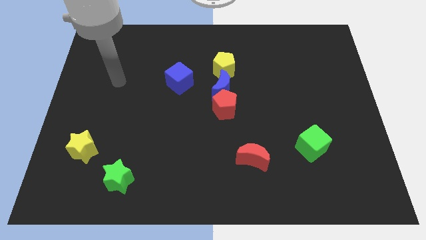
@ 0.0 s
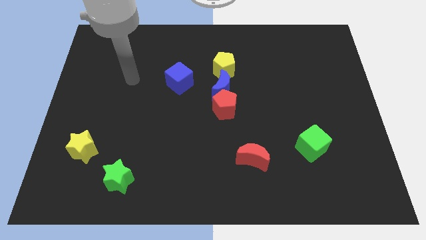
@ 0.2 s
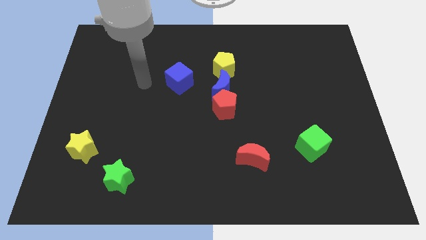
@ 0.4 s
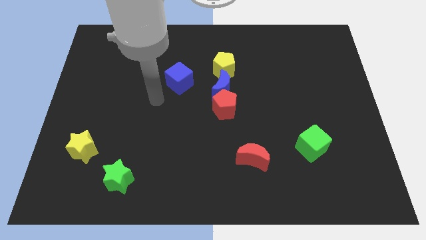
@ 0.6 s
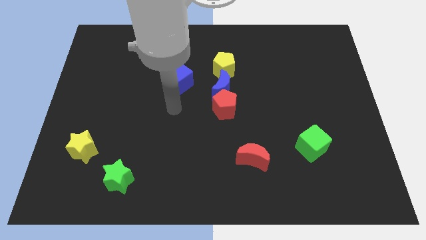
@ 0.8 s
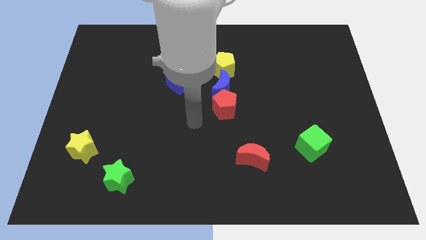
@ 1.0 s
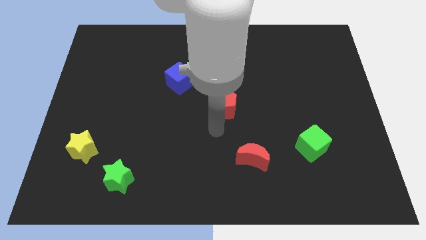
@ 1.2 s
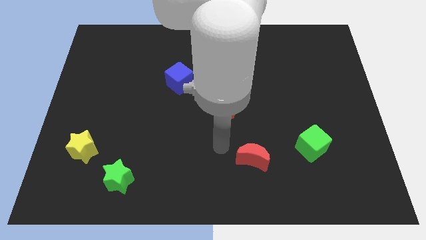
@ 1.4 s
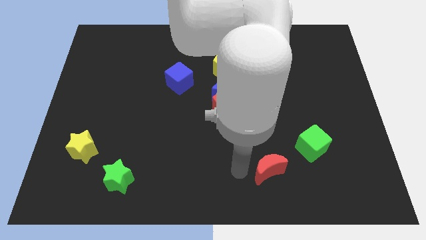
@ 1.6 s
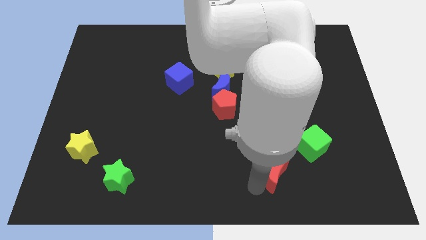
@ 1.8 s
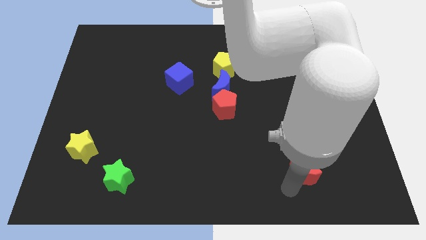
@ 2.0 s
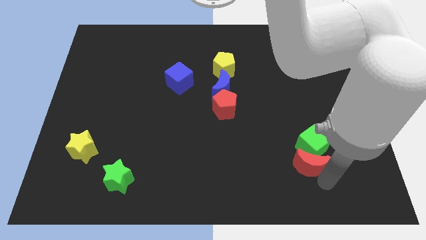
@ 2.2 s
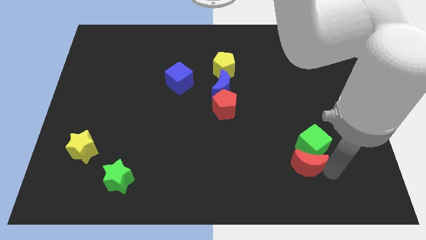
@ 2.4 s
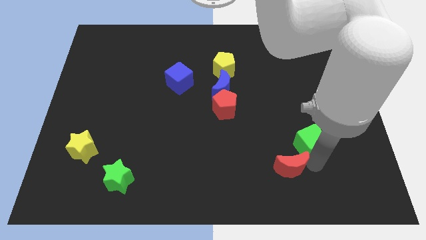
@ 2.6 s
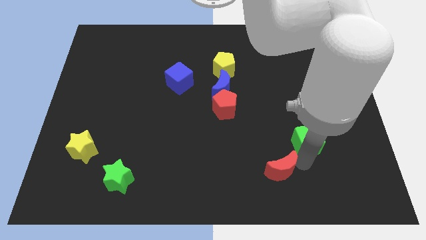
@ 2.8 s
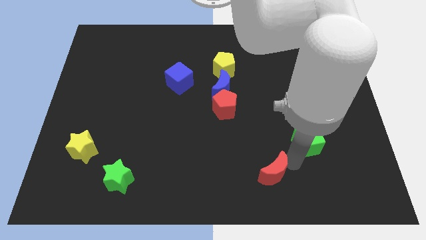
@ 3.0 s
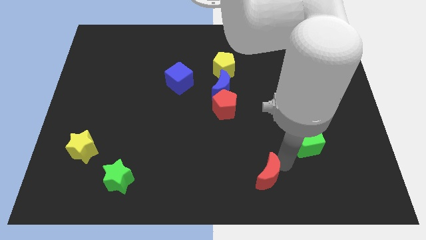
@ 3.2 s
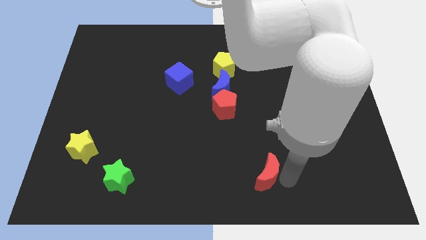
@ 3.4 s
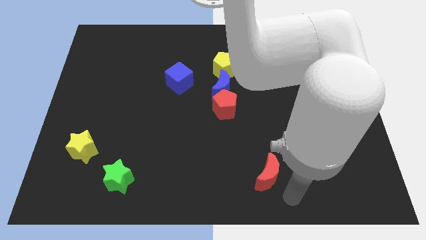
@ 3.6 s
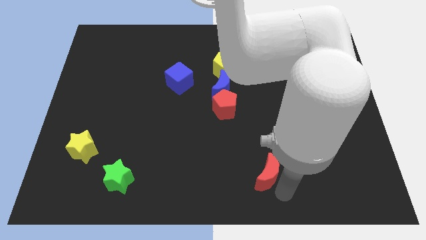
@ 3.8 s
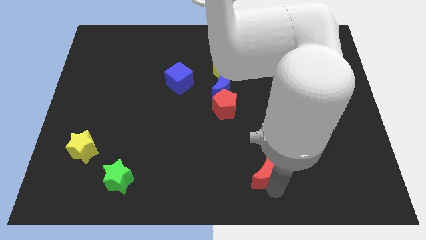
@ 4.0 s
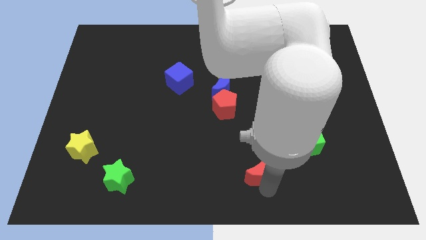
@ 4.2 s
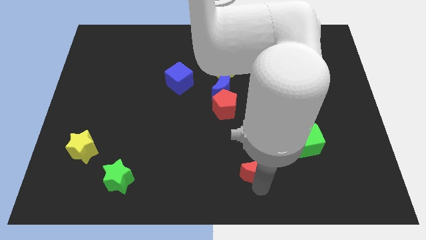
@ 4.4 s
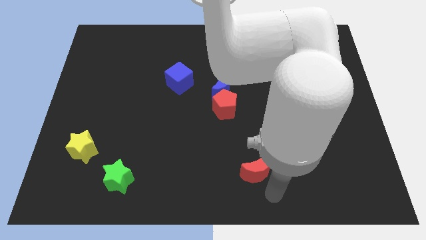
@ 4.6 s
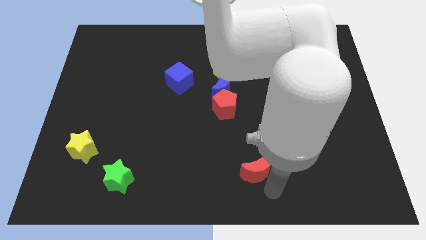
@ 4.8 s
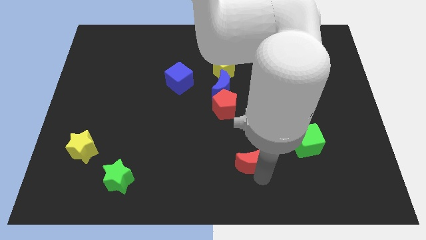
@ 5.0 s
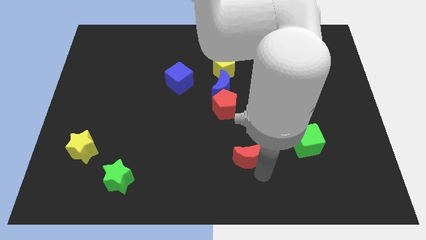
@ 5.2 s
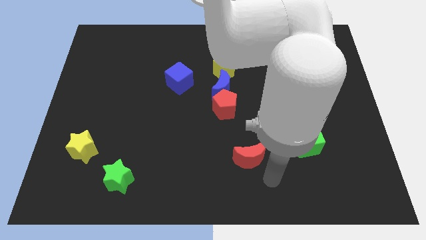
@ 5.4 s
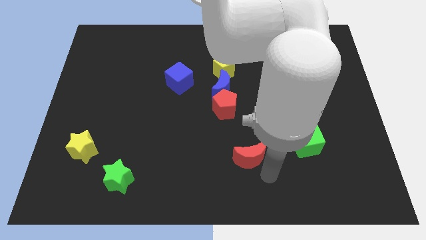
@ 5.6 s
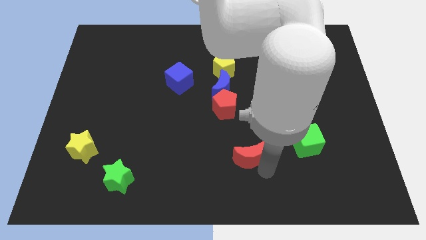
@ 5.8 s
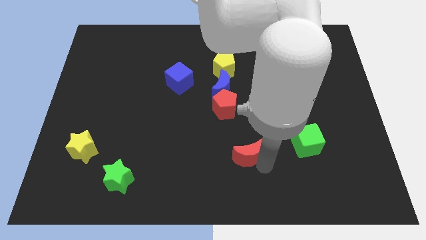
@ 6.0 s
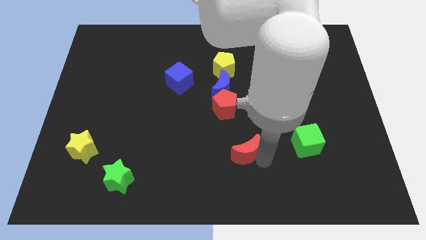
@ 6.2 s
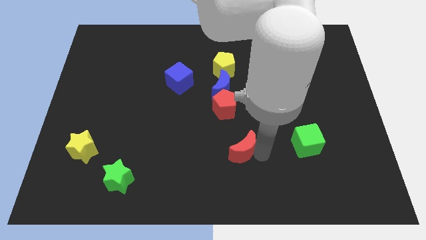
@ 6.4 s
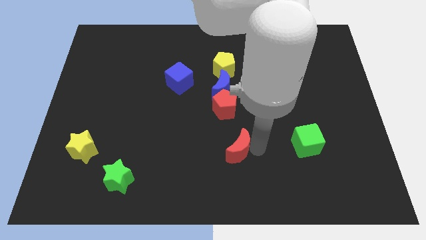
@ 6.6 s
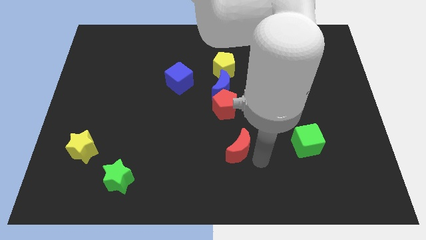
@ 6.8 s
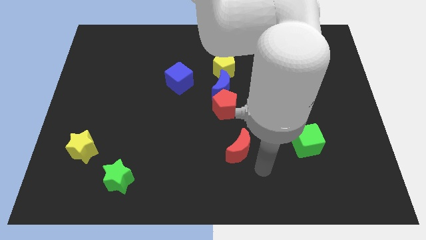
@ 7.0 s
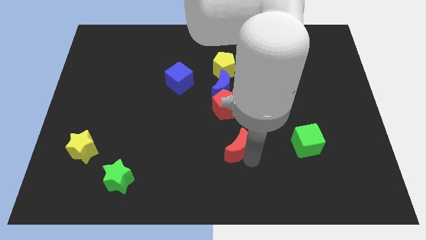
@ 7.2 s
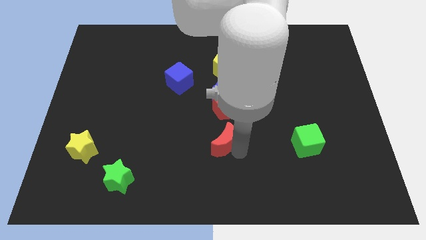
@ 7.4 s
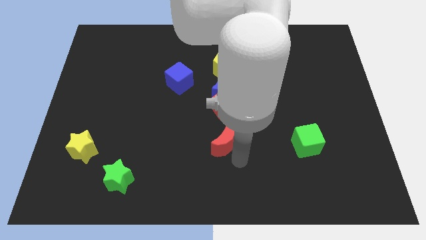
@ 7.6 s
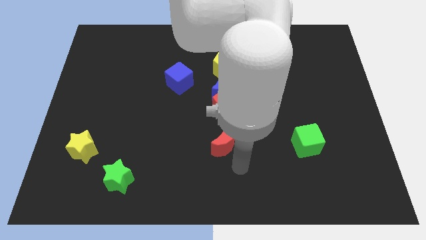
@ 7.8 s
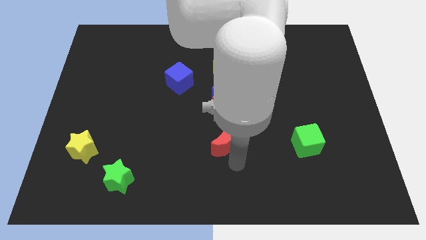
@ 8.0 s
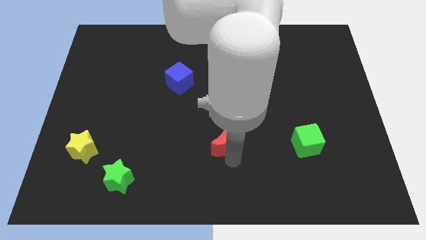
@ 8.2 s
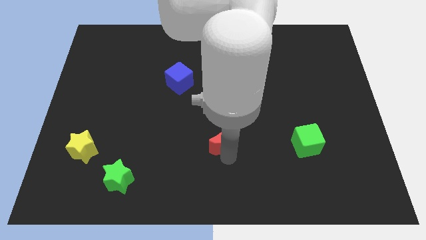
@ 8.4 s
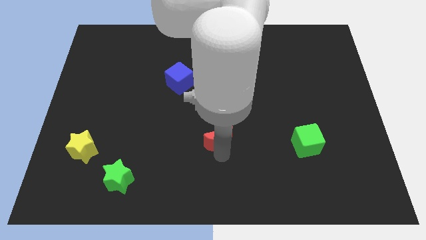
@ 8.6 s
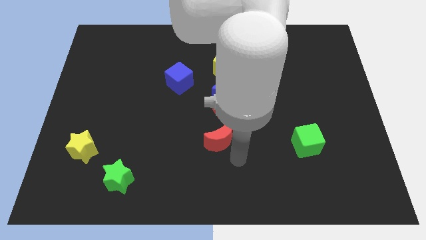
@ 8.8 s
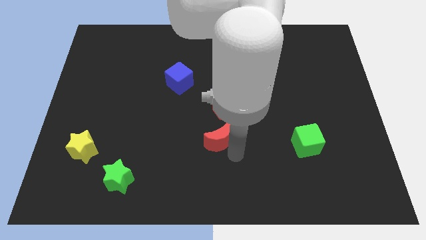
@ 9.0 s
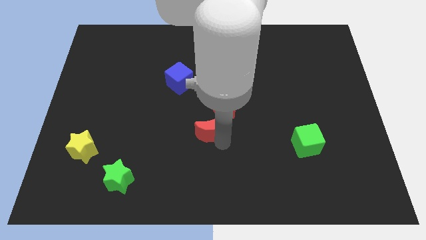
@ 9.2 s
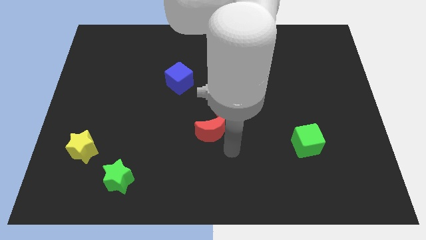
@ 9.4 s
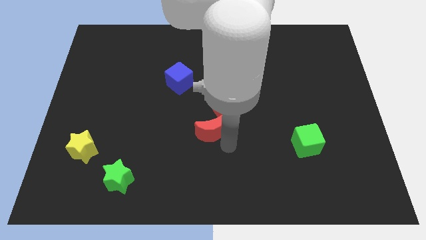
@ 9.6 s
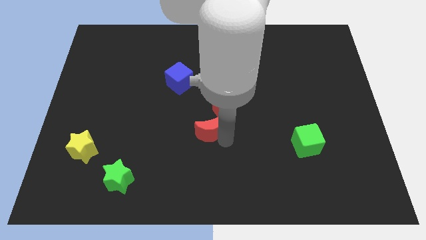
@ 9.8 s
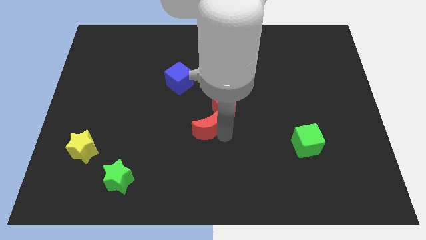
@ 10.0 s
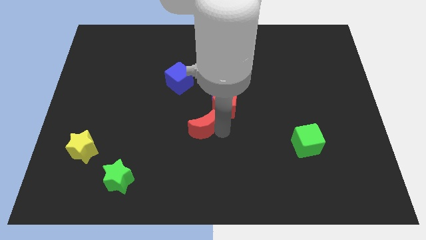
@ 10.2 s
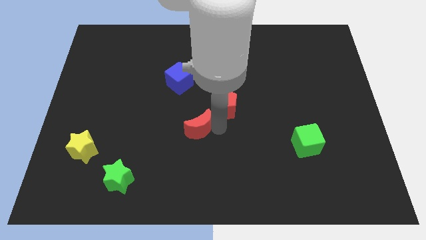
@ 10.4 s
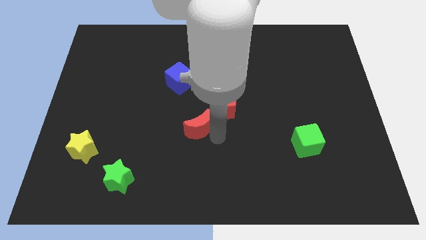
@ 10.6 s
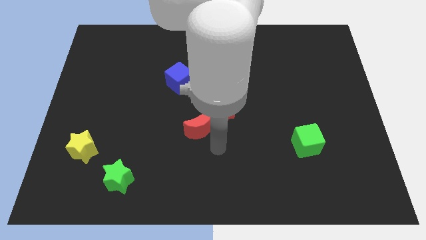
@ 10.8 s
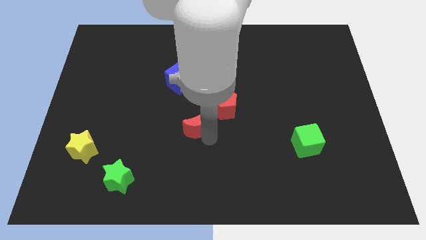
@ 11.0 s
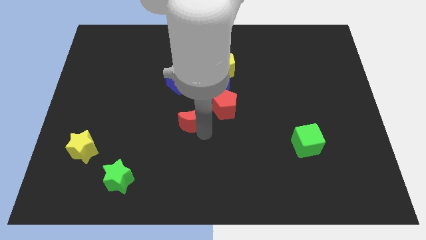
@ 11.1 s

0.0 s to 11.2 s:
put the red moon to the left side of the red pentagon

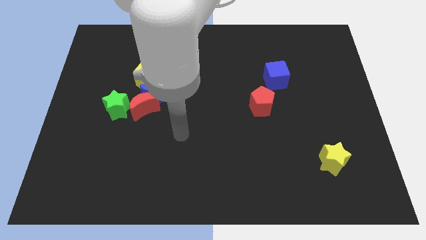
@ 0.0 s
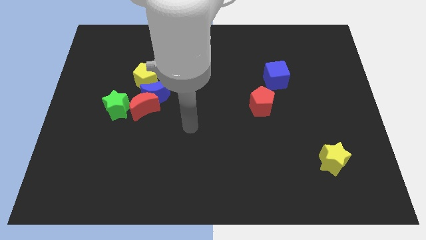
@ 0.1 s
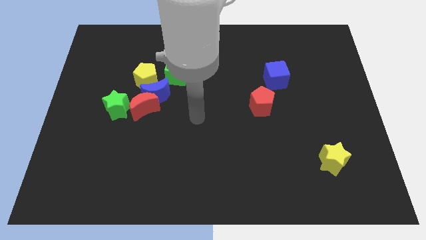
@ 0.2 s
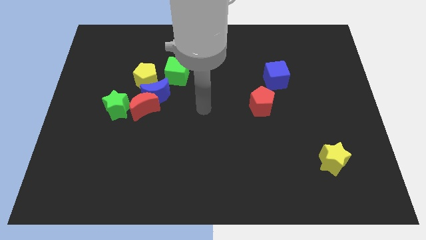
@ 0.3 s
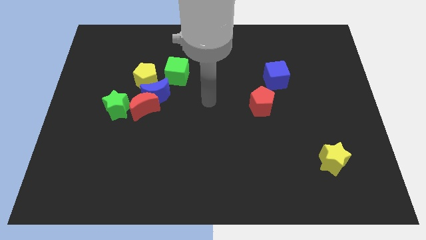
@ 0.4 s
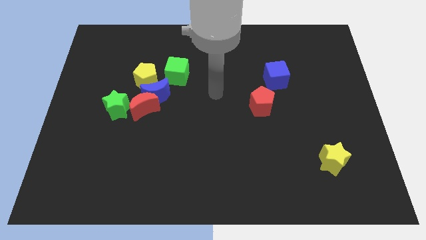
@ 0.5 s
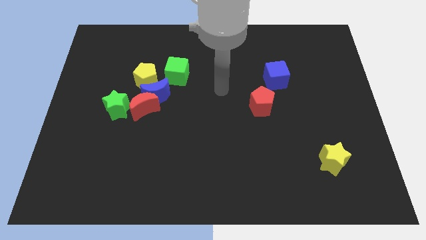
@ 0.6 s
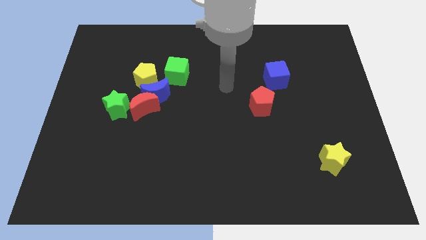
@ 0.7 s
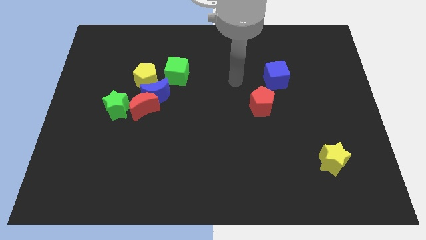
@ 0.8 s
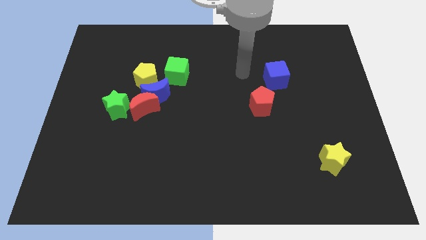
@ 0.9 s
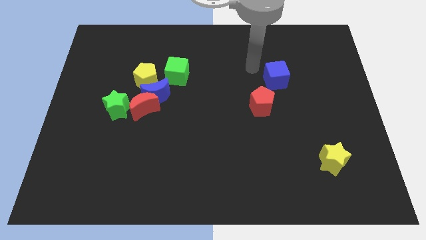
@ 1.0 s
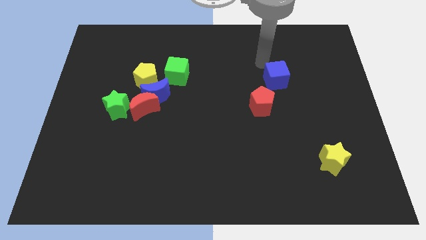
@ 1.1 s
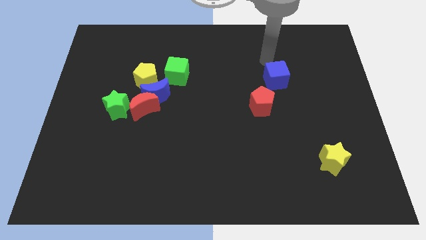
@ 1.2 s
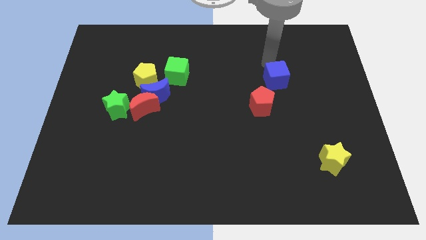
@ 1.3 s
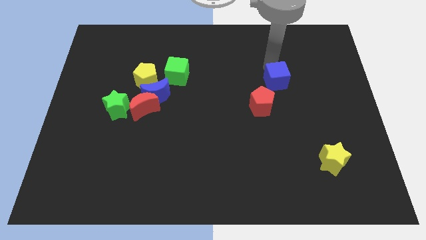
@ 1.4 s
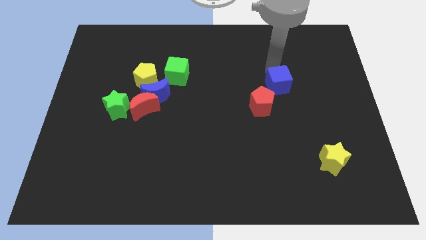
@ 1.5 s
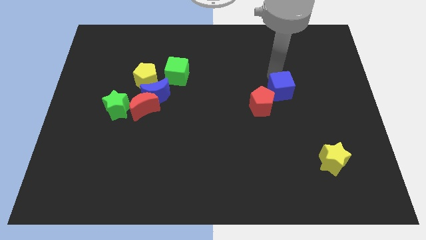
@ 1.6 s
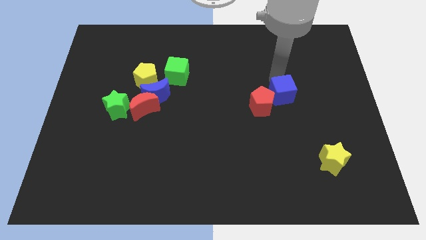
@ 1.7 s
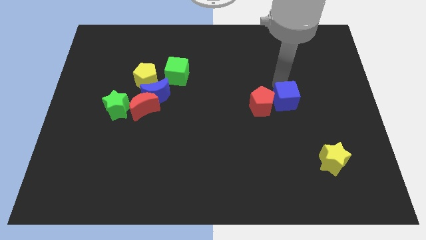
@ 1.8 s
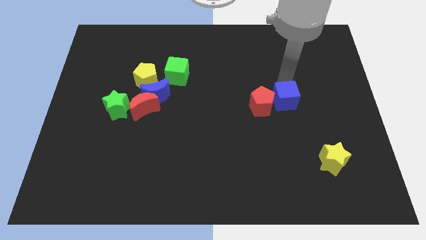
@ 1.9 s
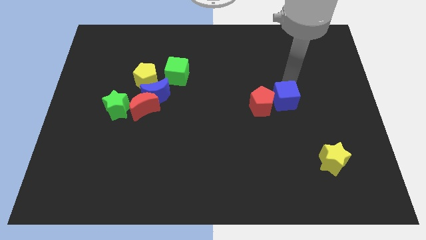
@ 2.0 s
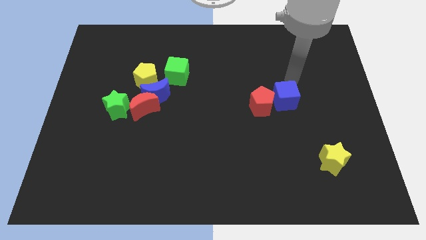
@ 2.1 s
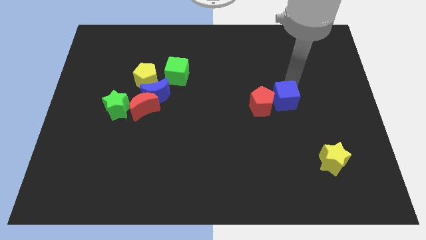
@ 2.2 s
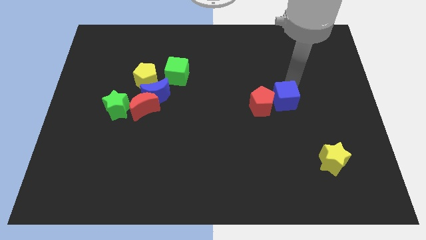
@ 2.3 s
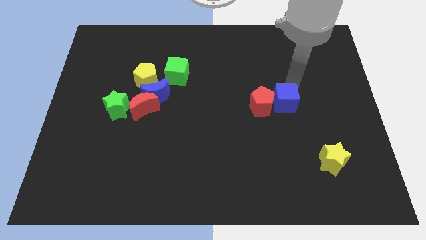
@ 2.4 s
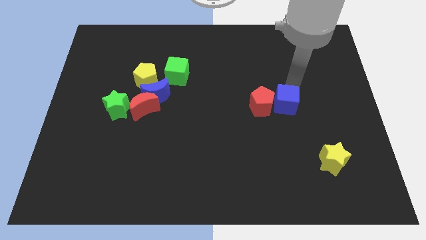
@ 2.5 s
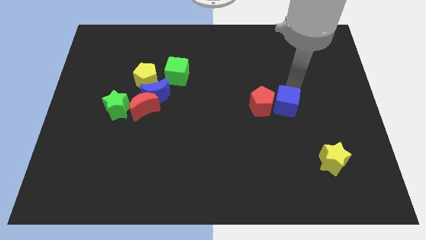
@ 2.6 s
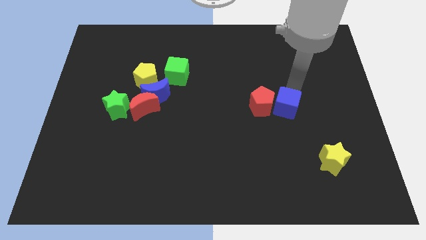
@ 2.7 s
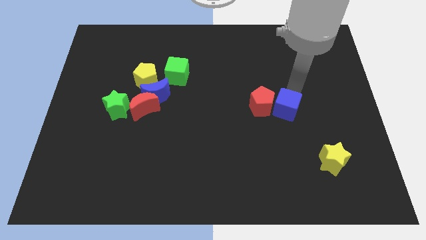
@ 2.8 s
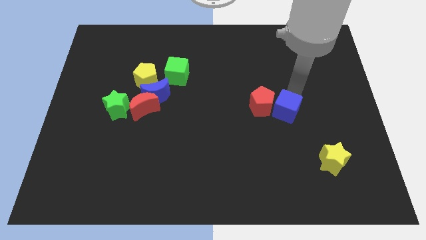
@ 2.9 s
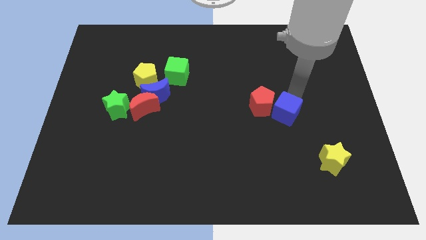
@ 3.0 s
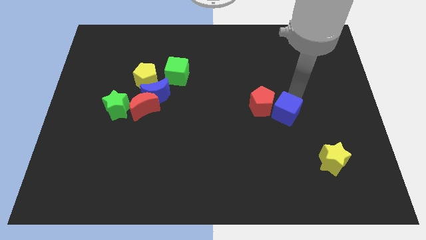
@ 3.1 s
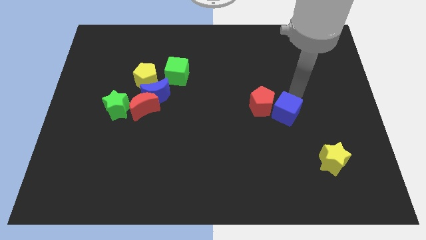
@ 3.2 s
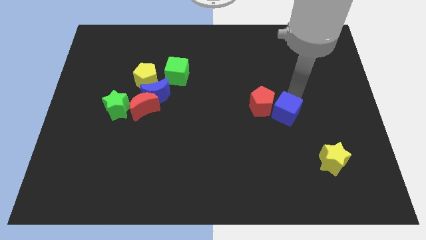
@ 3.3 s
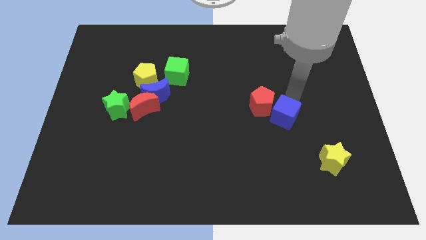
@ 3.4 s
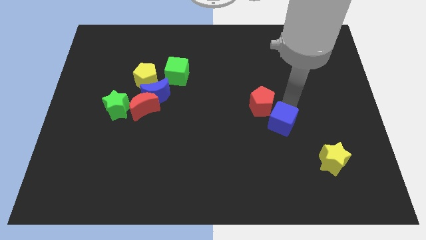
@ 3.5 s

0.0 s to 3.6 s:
slide the blue cube to the bottom of the red pentagon
